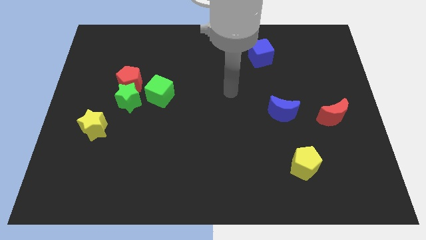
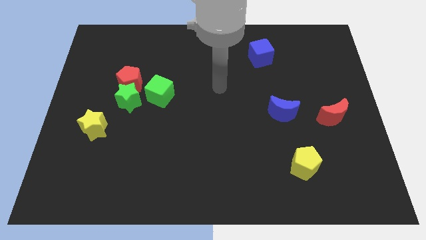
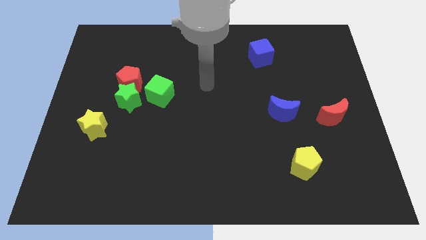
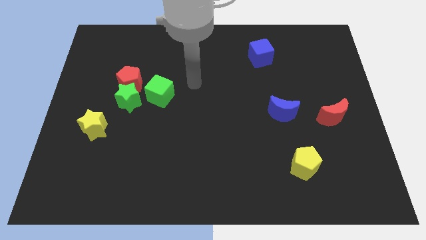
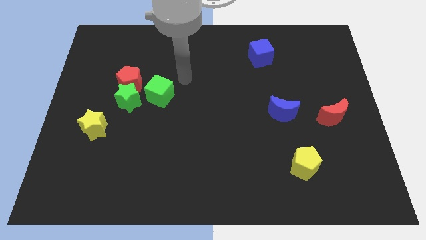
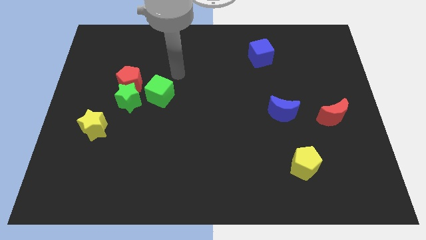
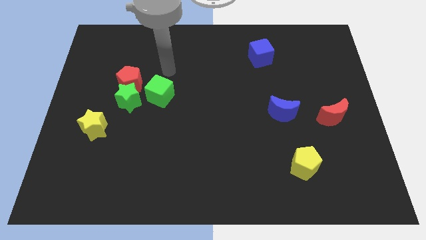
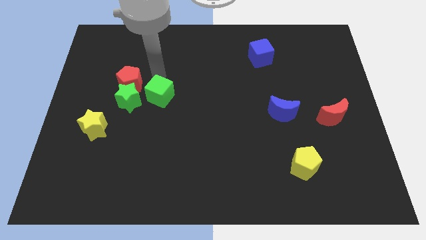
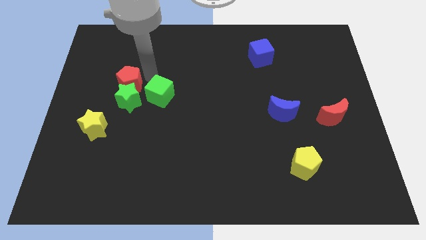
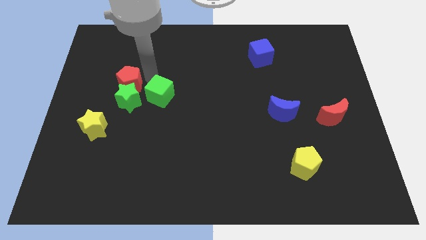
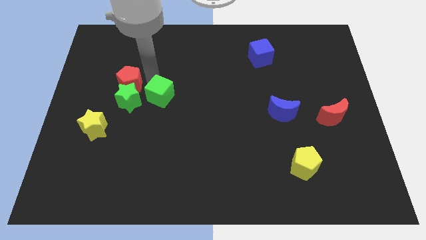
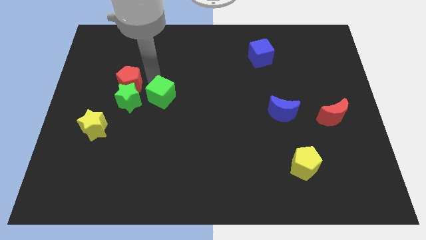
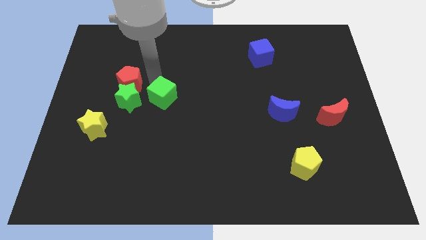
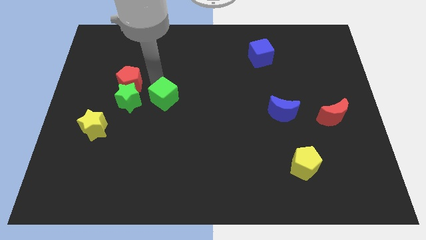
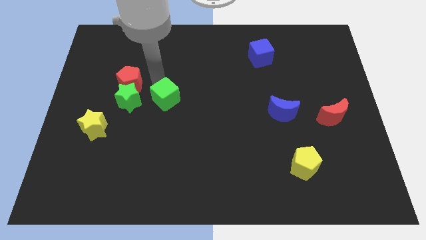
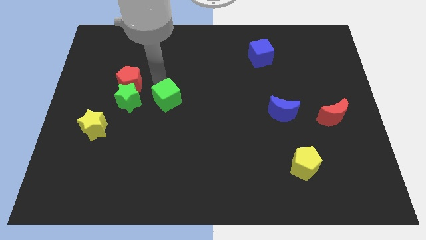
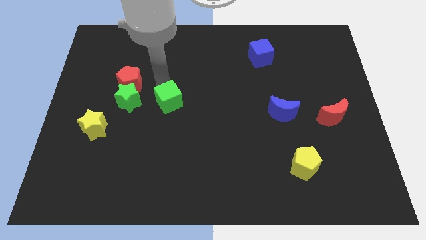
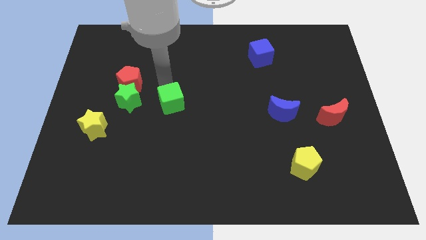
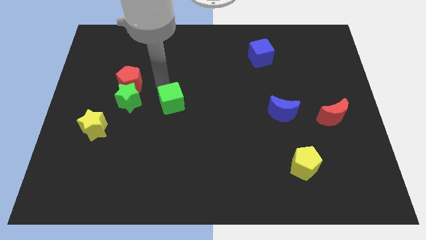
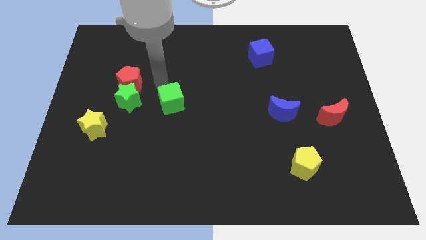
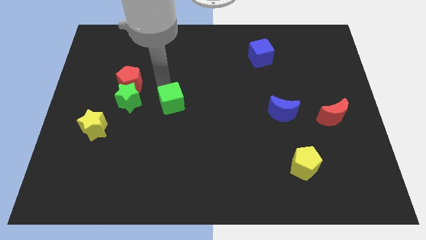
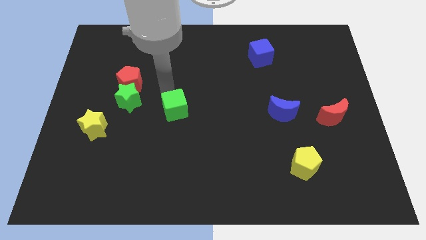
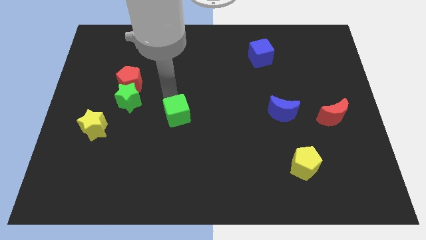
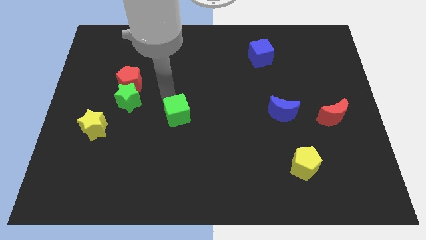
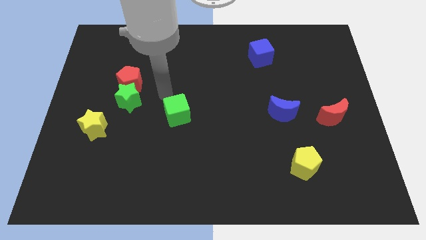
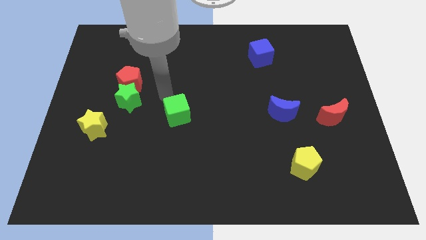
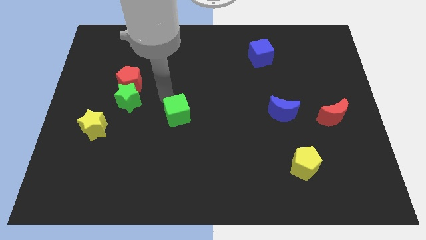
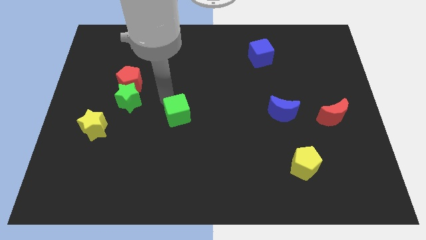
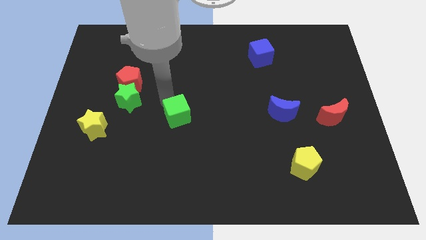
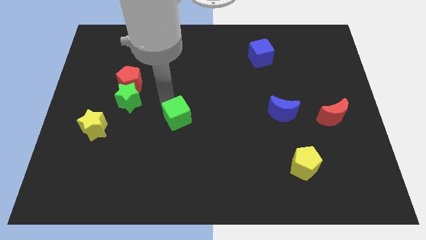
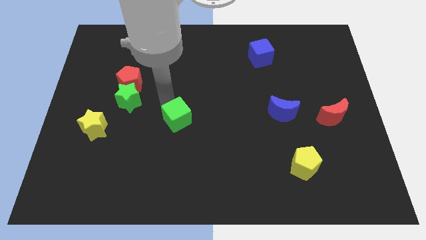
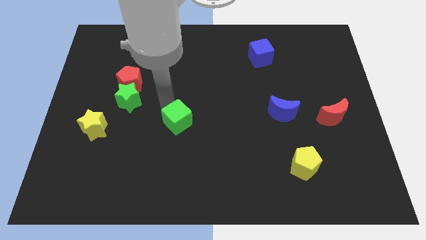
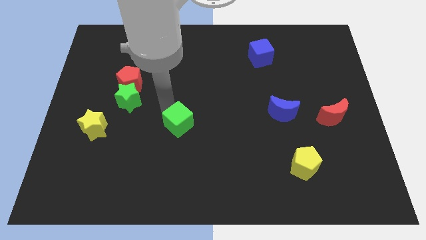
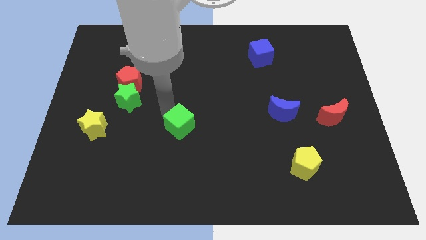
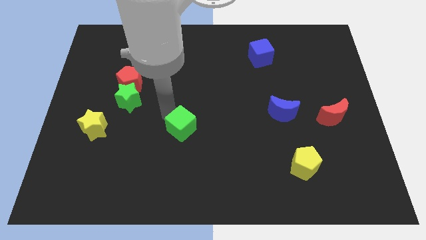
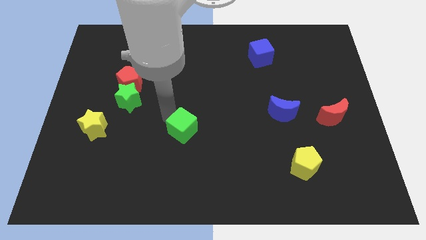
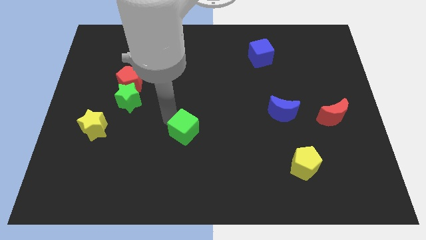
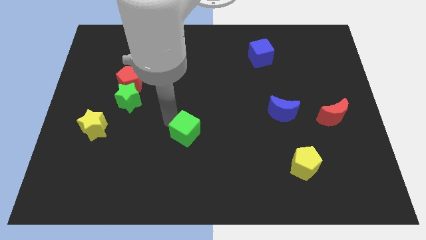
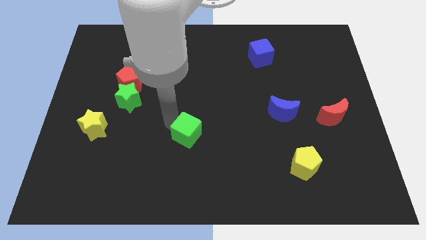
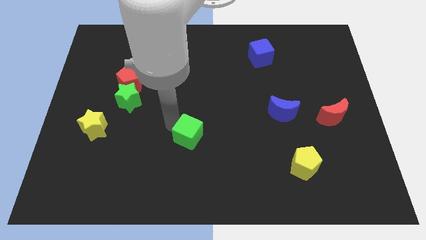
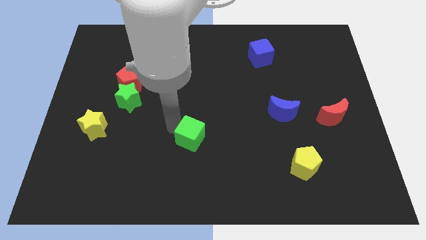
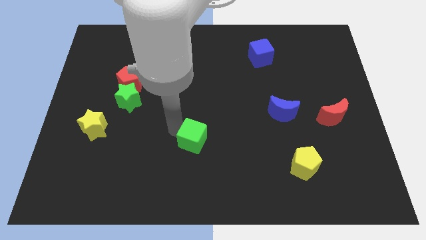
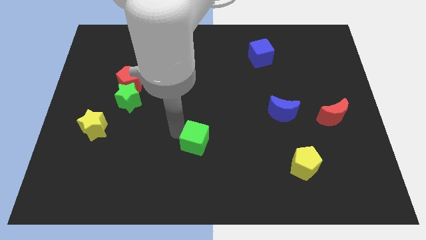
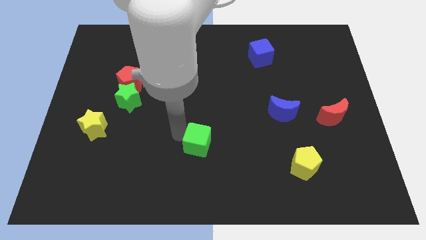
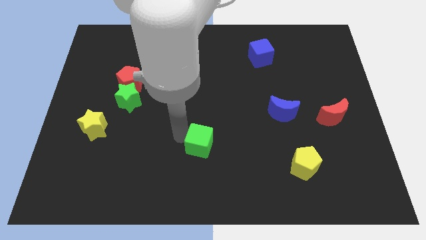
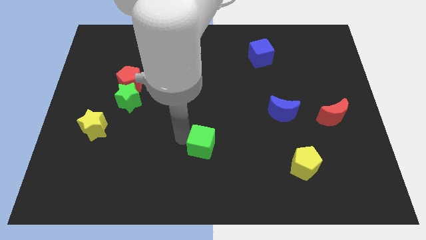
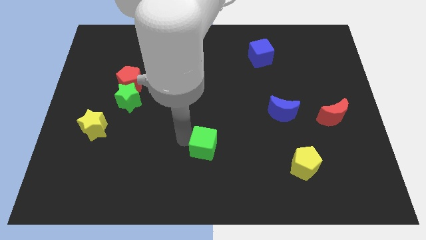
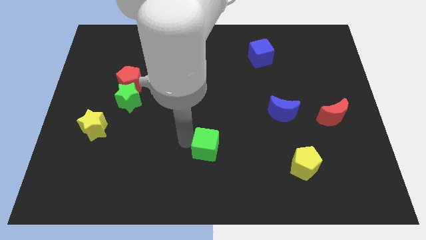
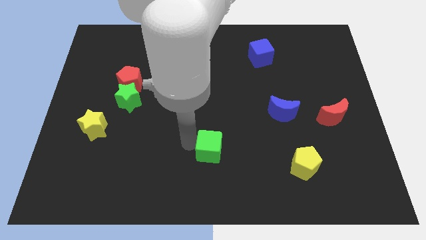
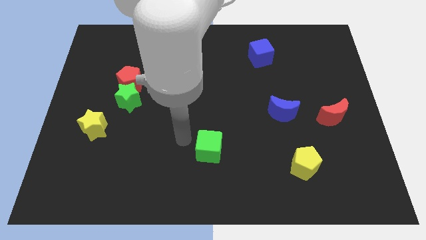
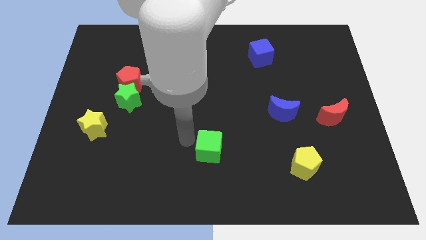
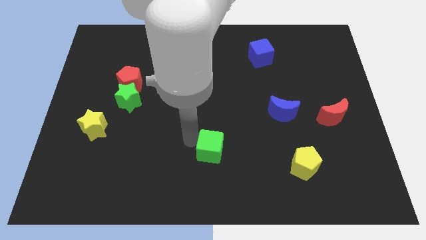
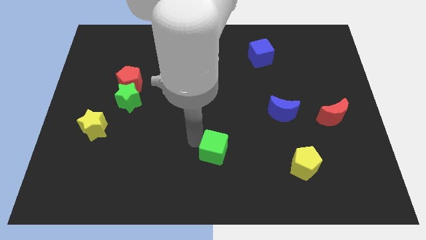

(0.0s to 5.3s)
push the green cube down and to the right diagonally

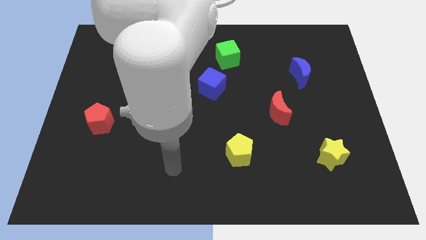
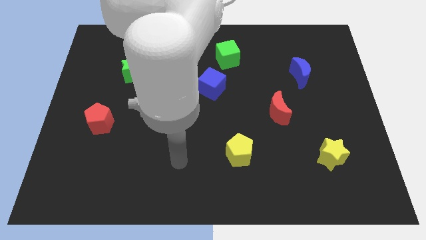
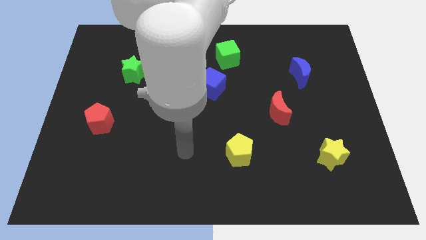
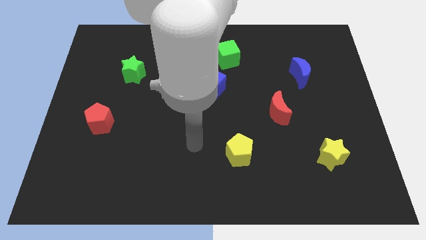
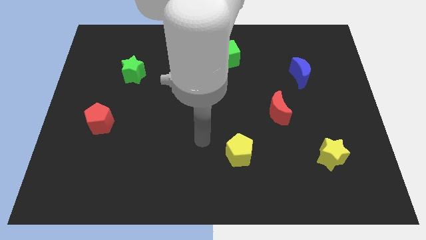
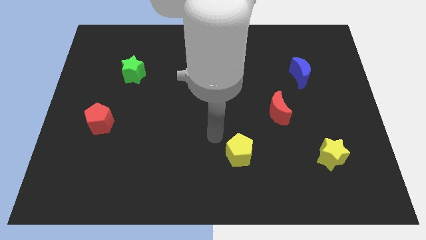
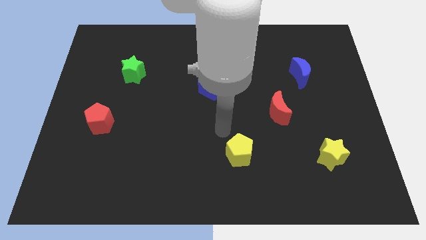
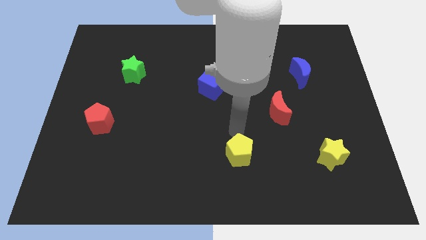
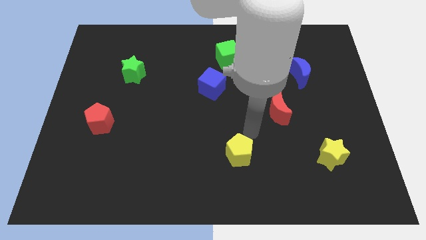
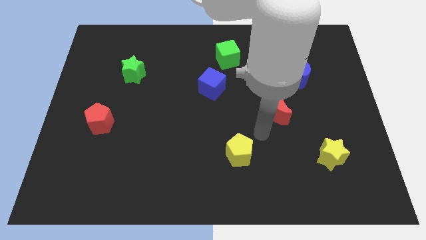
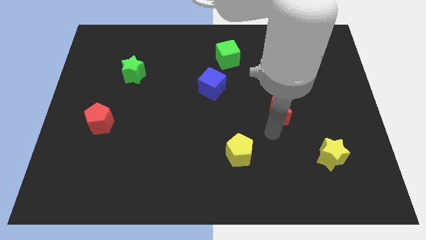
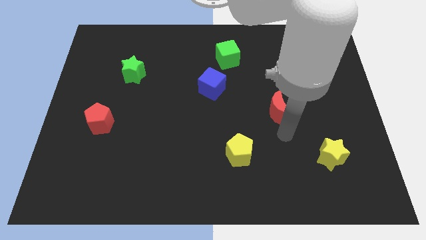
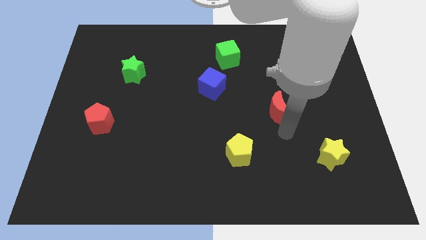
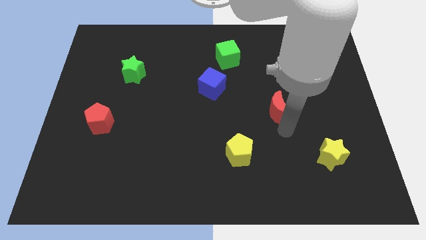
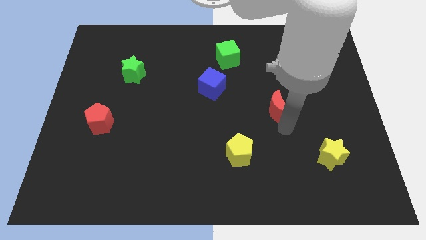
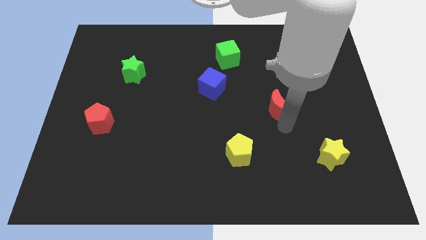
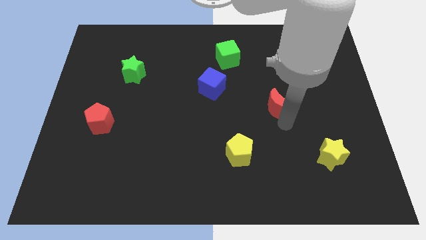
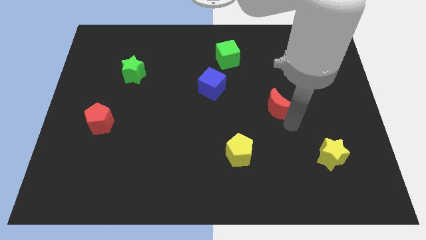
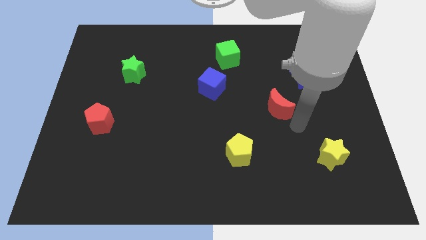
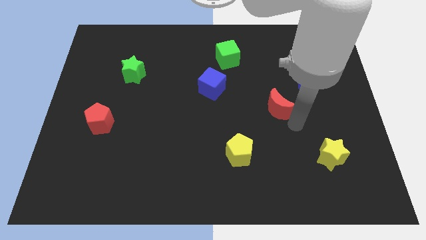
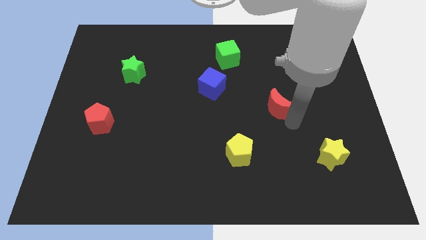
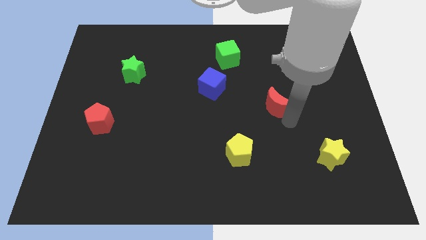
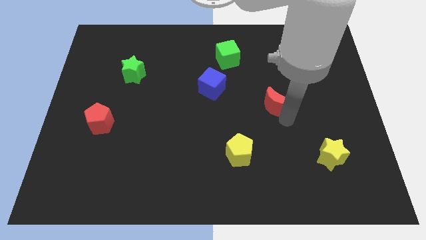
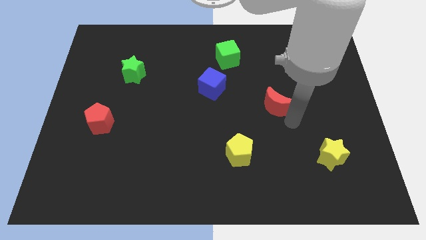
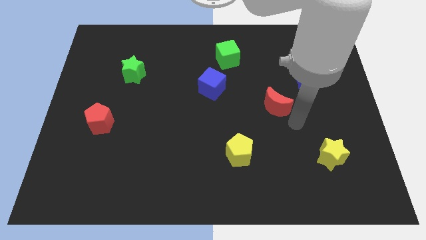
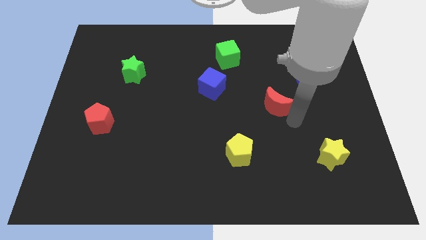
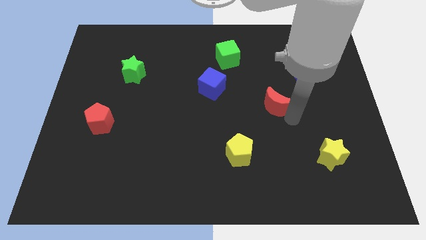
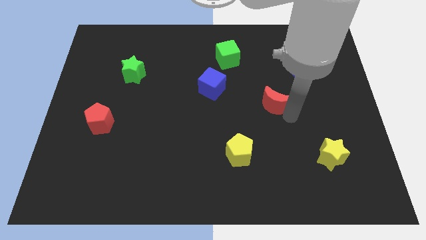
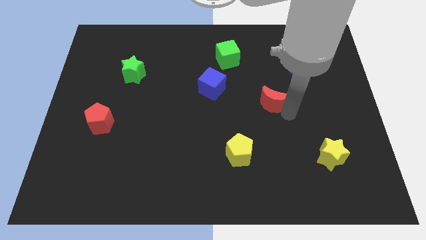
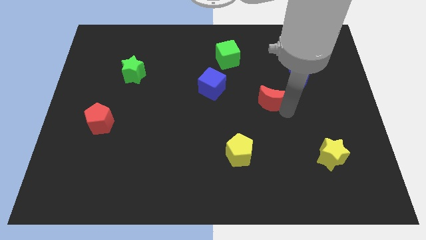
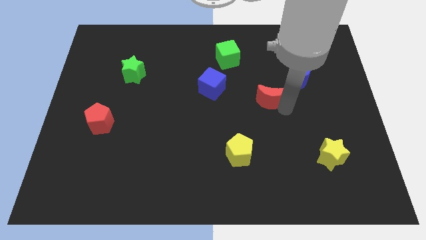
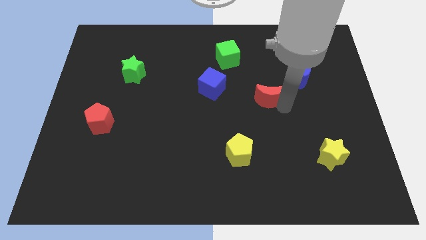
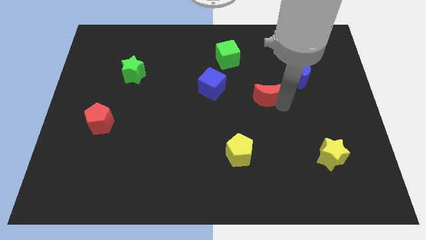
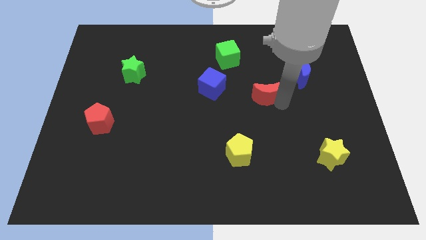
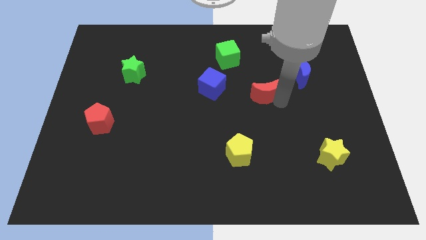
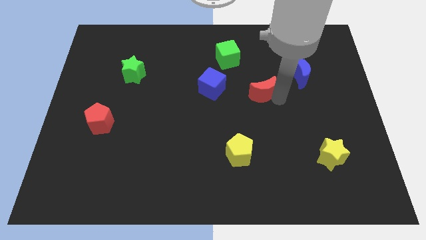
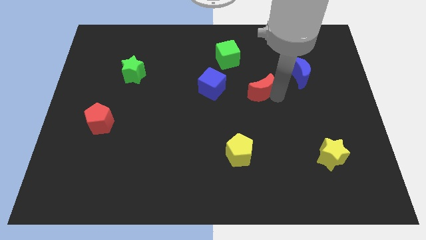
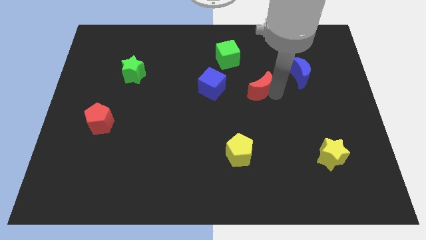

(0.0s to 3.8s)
move the red moon somewhat upwards and left diagonally
